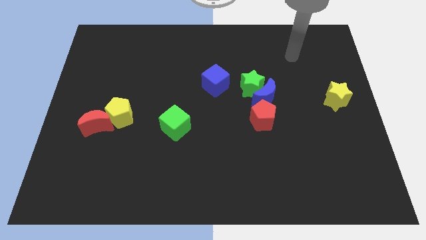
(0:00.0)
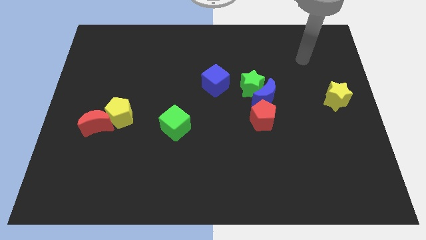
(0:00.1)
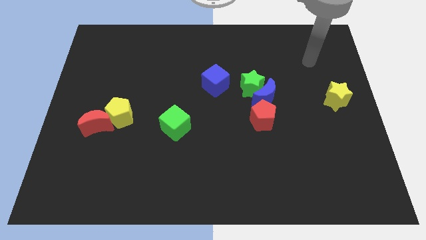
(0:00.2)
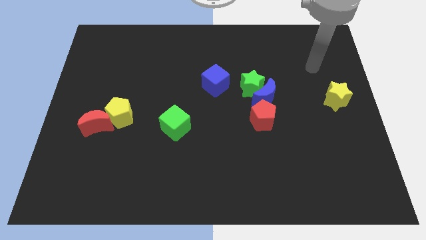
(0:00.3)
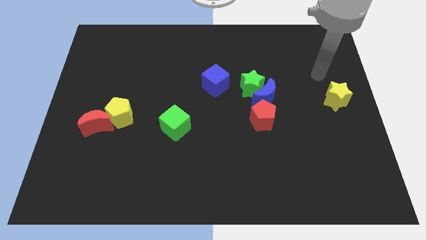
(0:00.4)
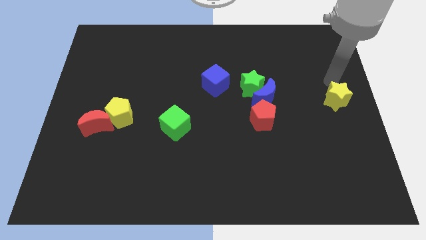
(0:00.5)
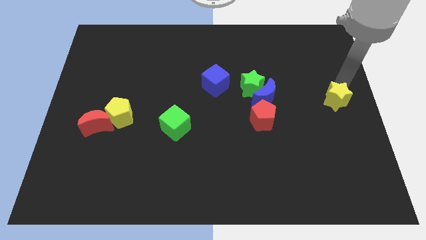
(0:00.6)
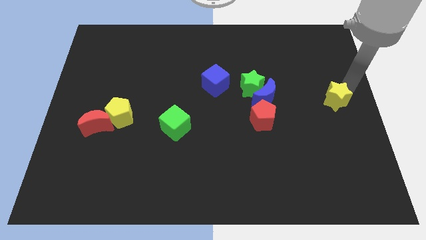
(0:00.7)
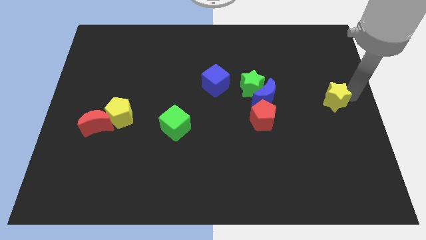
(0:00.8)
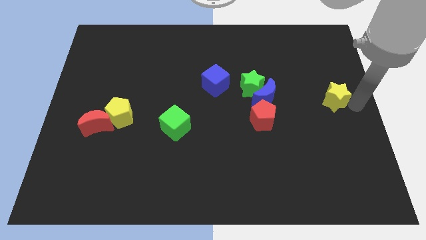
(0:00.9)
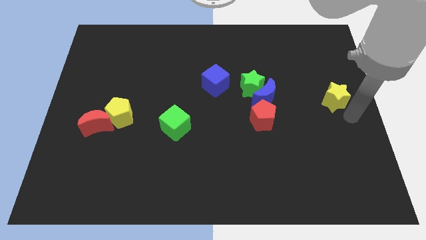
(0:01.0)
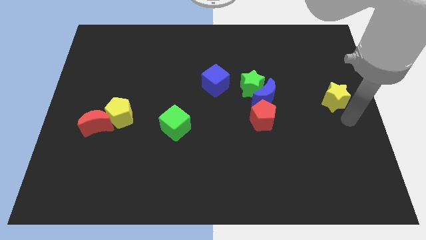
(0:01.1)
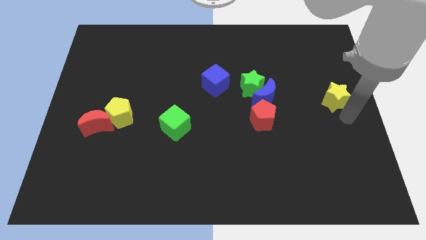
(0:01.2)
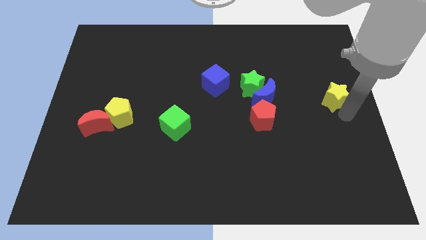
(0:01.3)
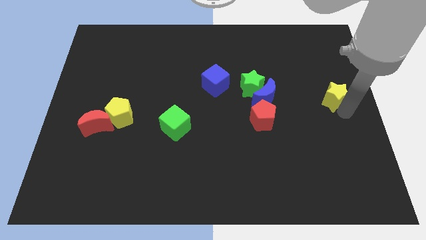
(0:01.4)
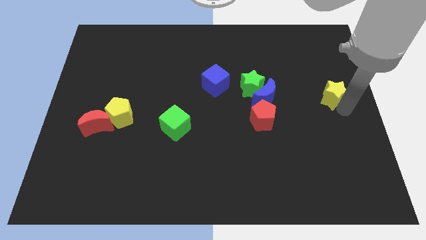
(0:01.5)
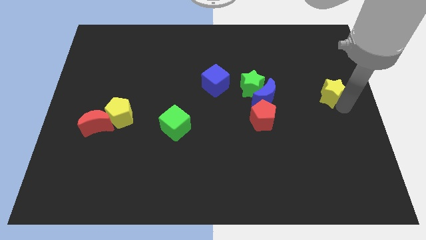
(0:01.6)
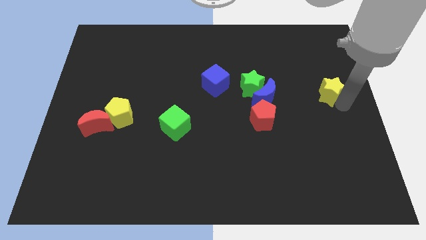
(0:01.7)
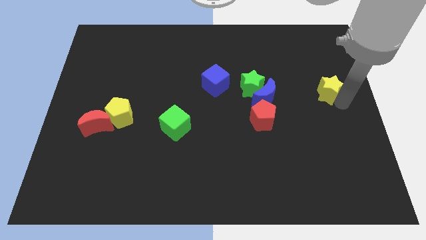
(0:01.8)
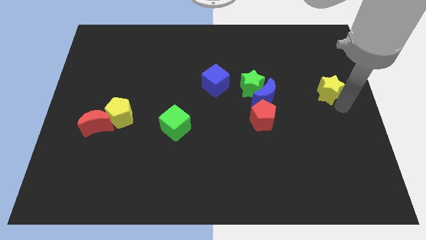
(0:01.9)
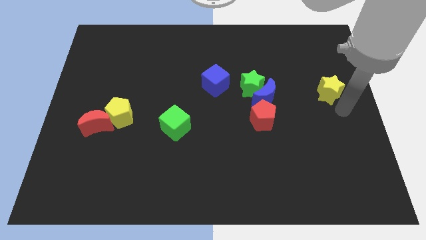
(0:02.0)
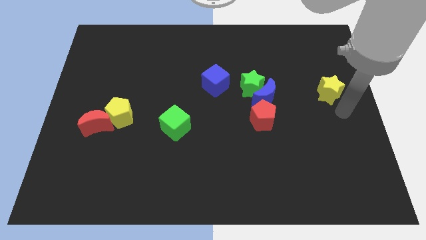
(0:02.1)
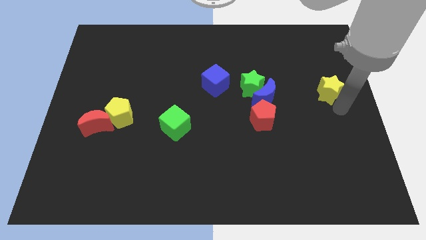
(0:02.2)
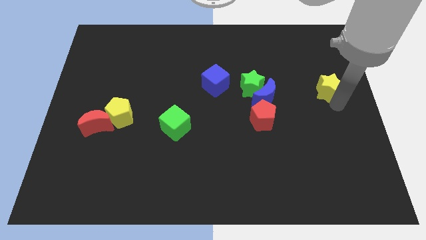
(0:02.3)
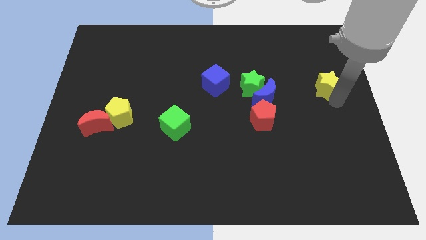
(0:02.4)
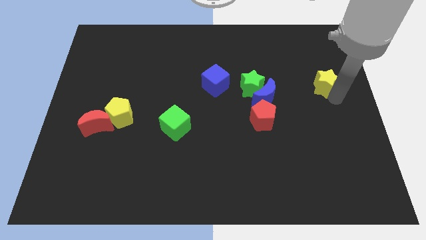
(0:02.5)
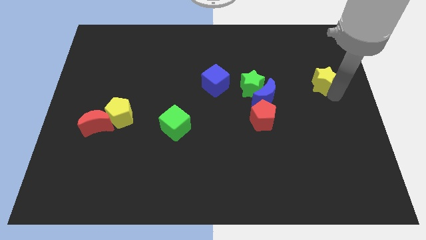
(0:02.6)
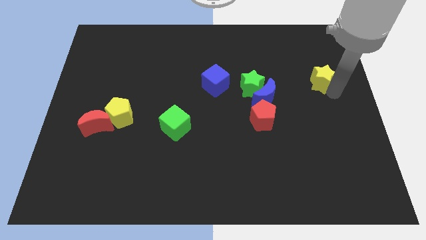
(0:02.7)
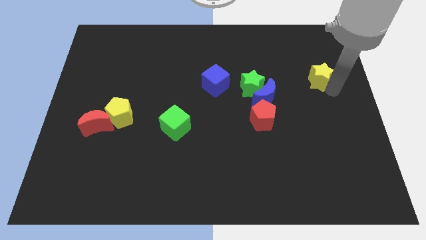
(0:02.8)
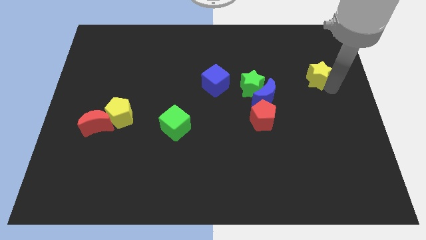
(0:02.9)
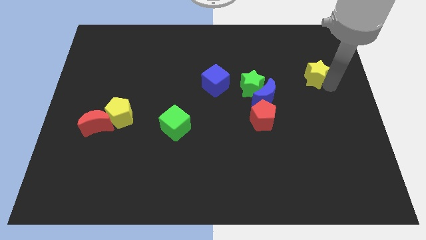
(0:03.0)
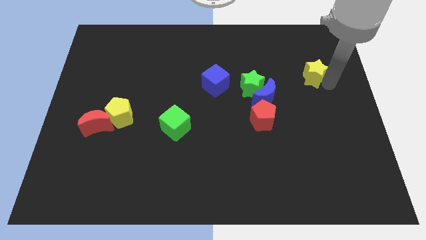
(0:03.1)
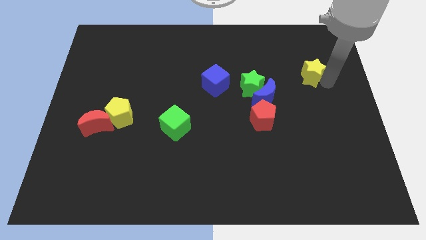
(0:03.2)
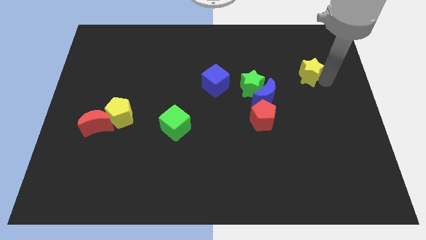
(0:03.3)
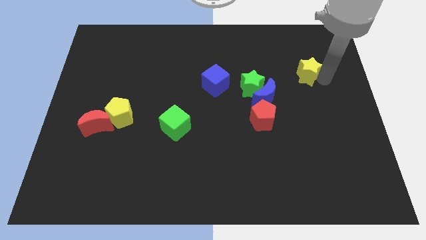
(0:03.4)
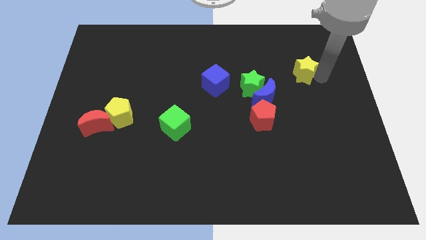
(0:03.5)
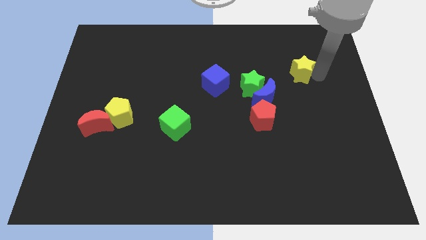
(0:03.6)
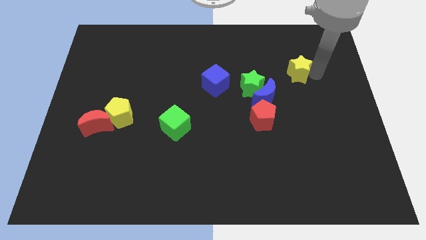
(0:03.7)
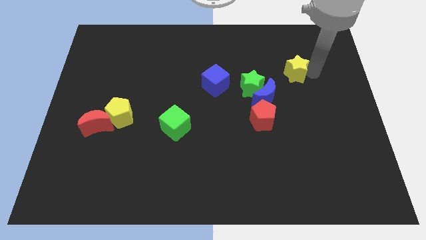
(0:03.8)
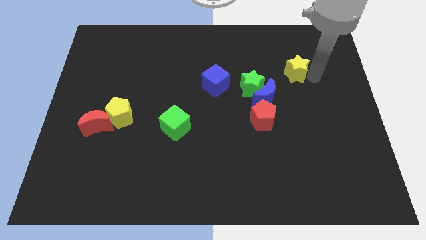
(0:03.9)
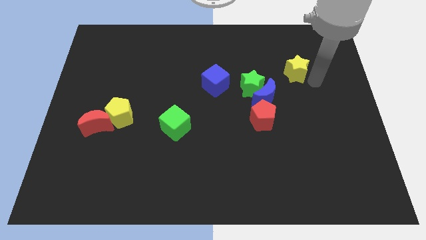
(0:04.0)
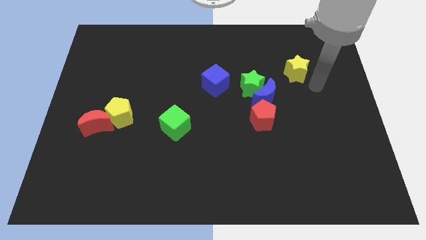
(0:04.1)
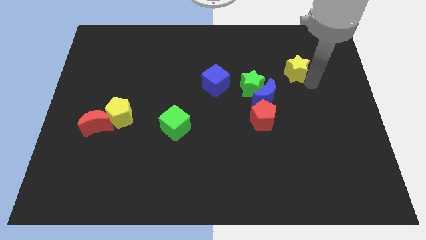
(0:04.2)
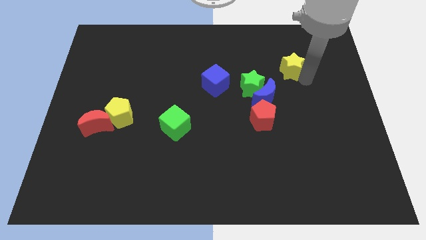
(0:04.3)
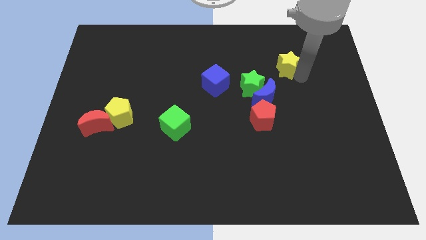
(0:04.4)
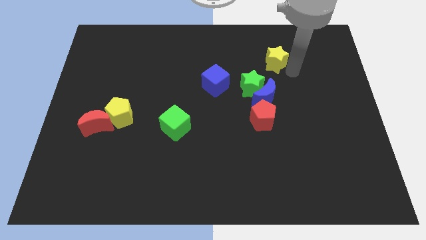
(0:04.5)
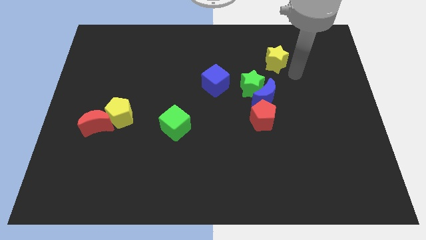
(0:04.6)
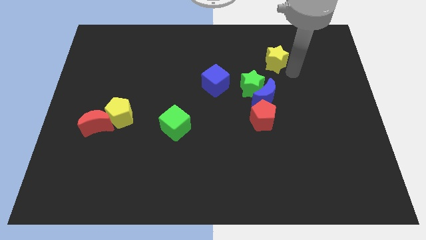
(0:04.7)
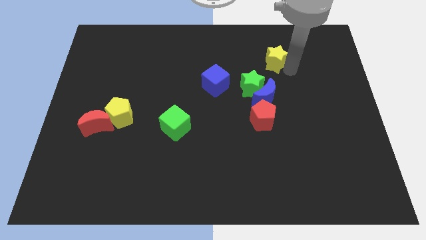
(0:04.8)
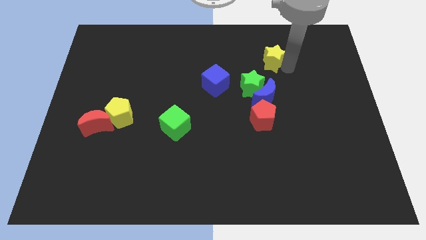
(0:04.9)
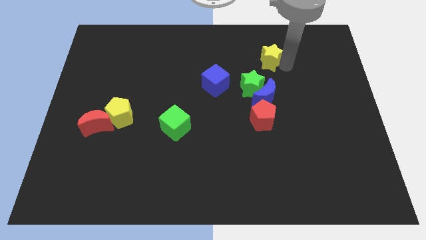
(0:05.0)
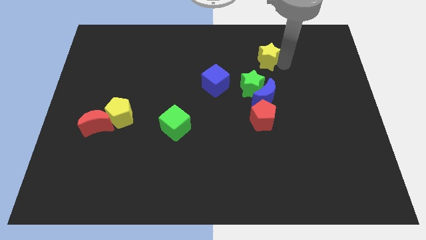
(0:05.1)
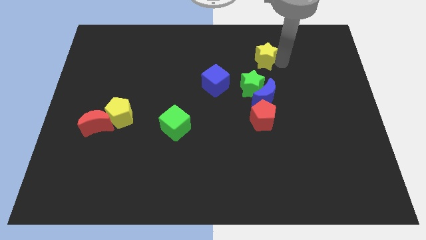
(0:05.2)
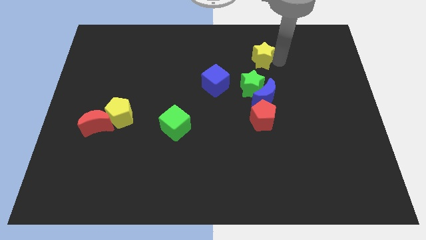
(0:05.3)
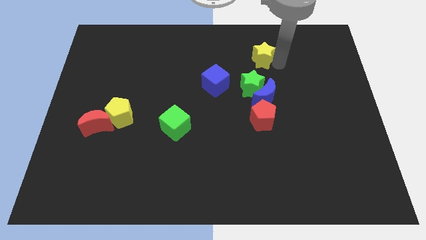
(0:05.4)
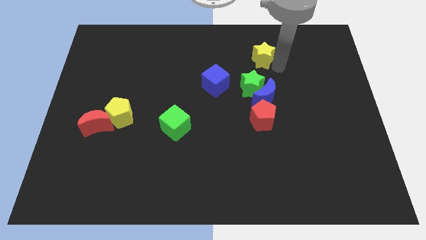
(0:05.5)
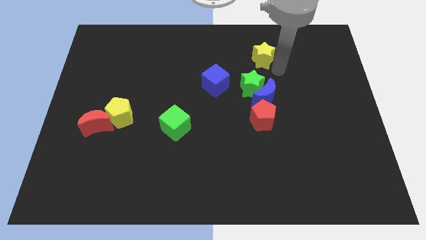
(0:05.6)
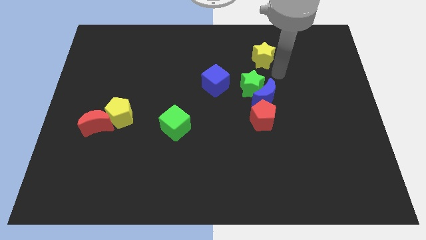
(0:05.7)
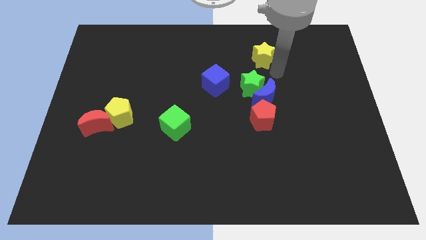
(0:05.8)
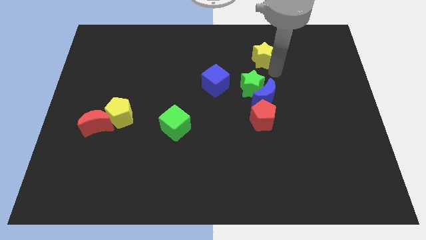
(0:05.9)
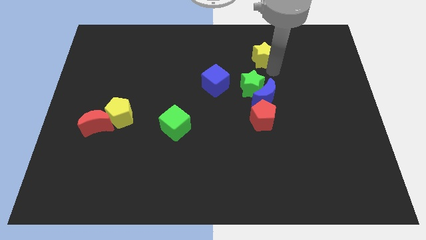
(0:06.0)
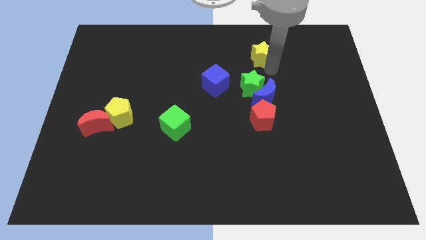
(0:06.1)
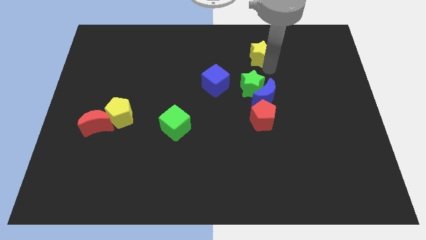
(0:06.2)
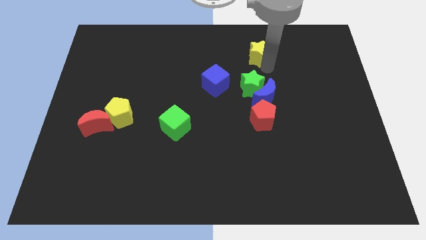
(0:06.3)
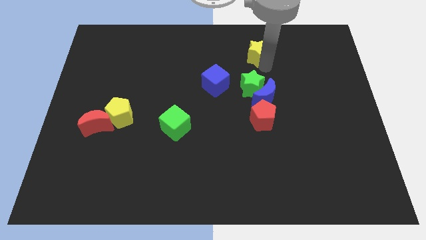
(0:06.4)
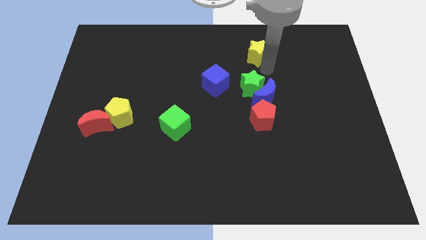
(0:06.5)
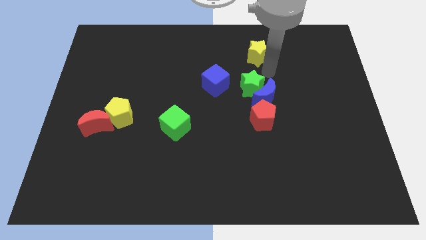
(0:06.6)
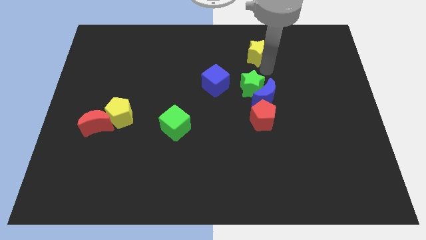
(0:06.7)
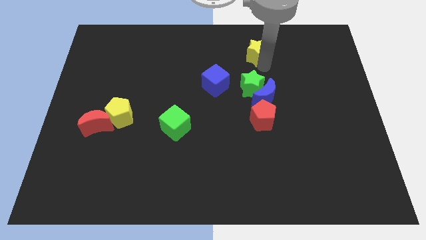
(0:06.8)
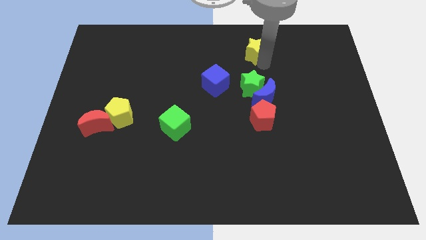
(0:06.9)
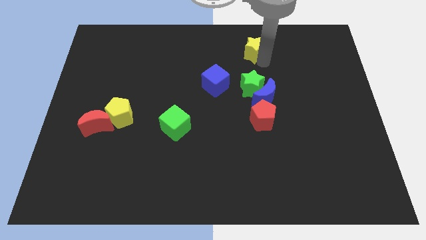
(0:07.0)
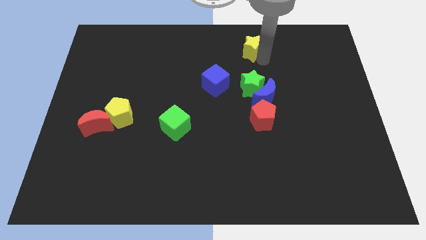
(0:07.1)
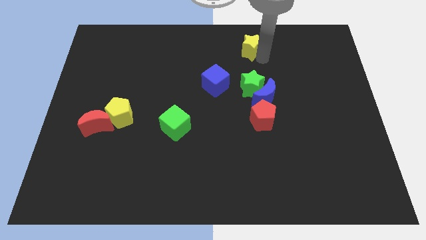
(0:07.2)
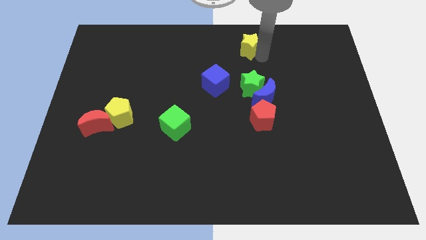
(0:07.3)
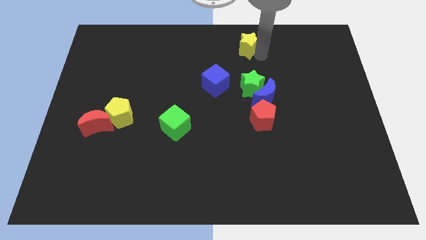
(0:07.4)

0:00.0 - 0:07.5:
slide the yellow star to the top
